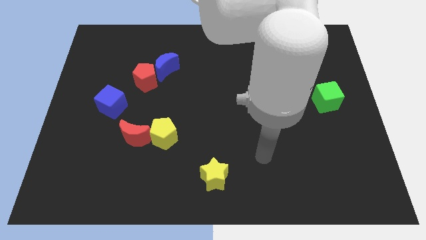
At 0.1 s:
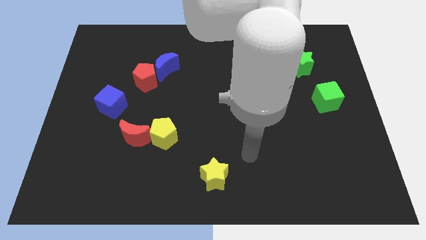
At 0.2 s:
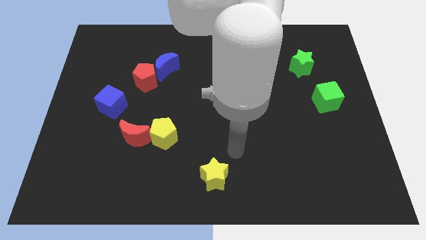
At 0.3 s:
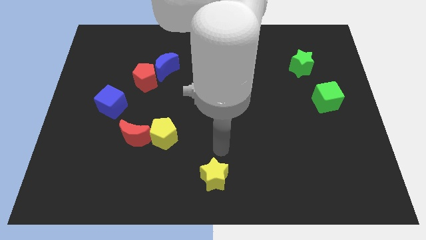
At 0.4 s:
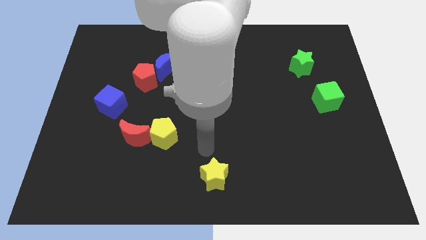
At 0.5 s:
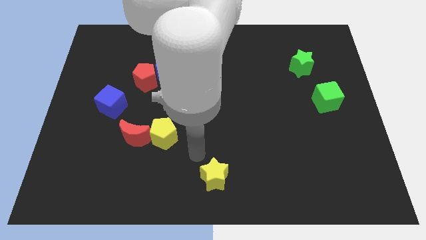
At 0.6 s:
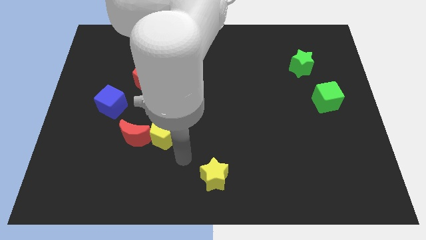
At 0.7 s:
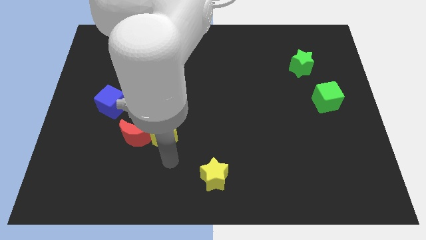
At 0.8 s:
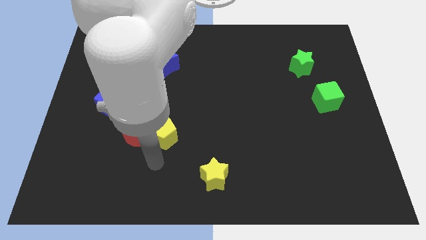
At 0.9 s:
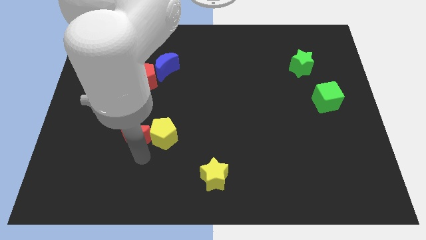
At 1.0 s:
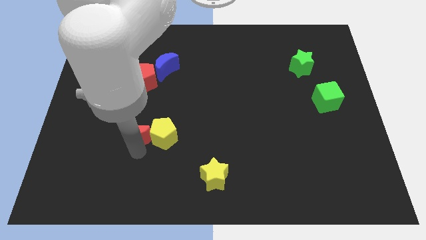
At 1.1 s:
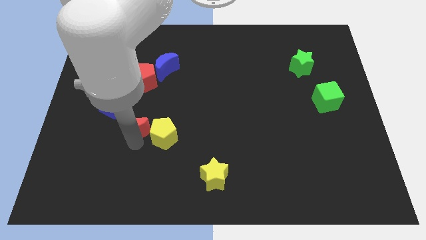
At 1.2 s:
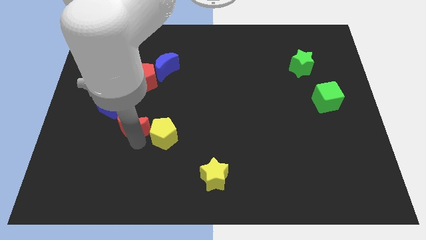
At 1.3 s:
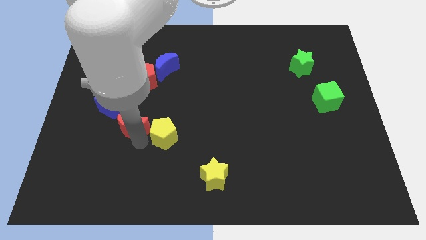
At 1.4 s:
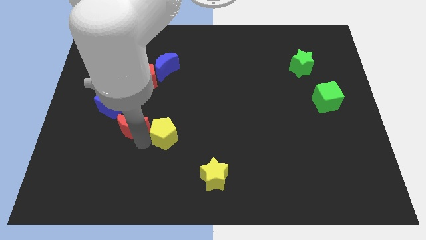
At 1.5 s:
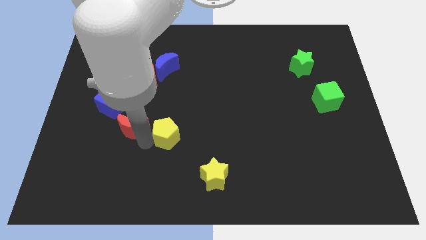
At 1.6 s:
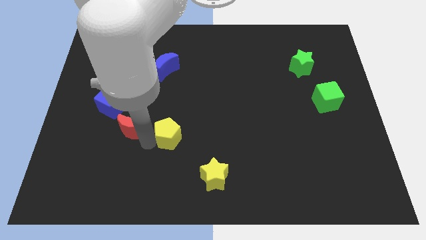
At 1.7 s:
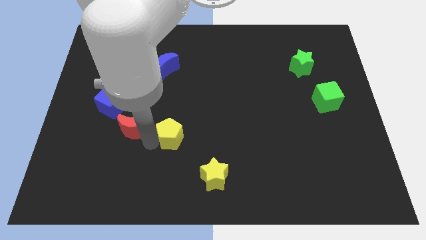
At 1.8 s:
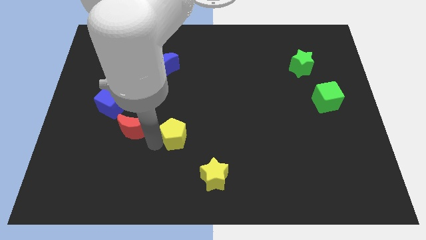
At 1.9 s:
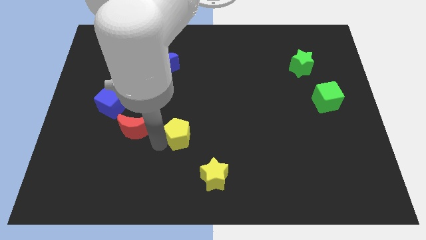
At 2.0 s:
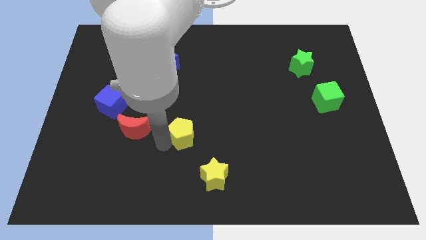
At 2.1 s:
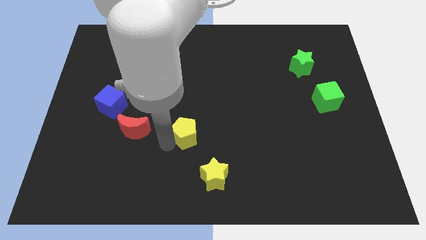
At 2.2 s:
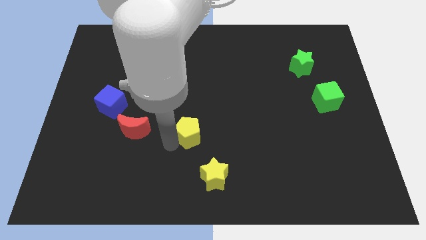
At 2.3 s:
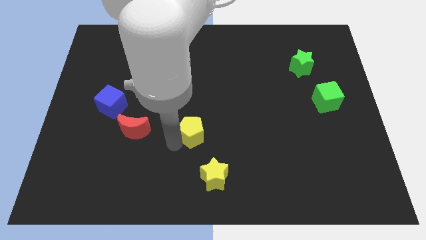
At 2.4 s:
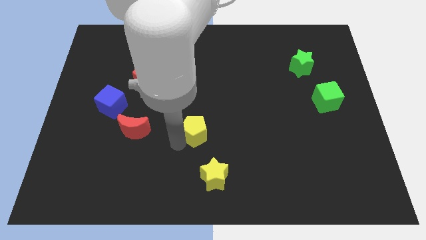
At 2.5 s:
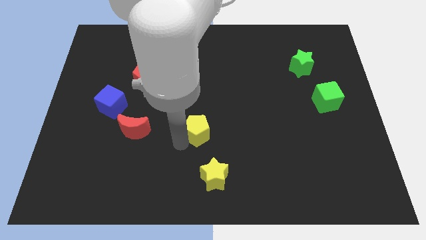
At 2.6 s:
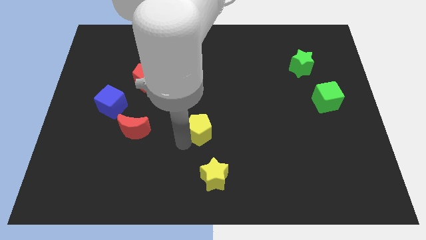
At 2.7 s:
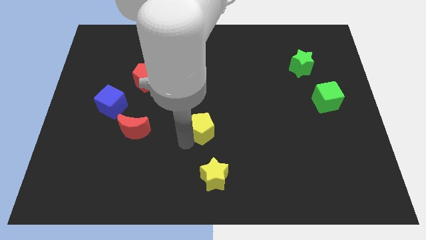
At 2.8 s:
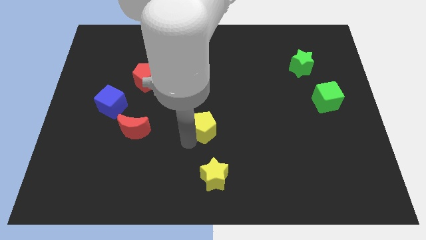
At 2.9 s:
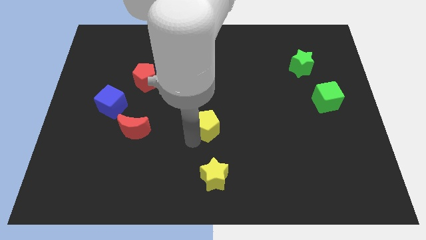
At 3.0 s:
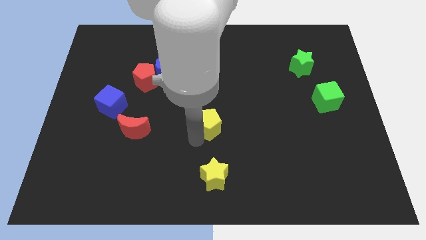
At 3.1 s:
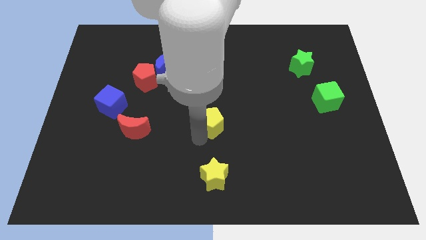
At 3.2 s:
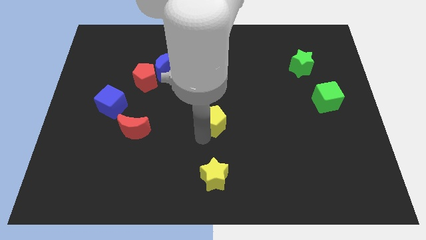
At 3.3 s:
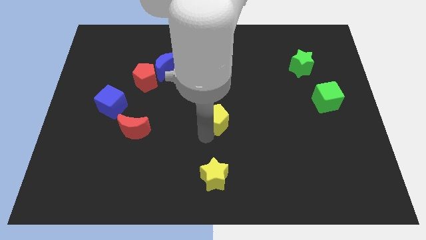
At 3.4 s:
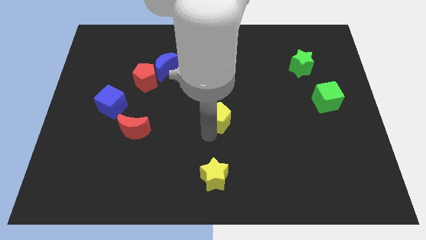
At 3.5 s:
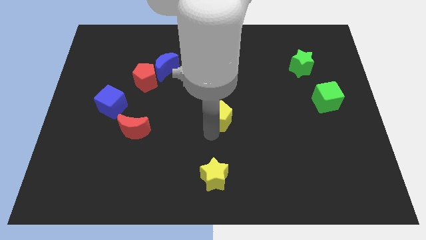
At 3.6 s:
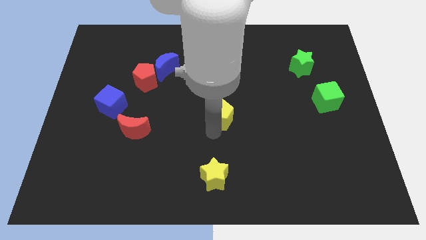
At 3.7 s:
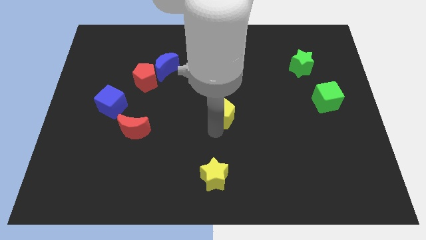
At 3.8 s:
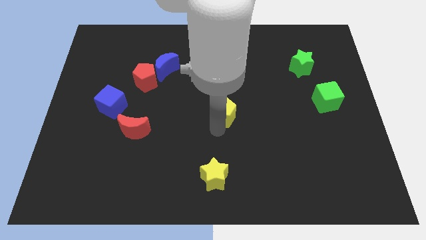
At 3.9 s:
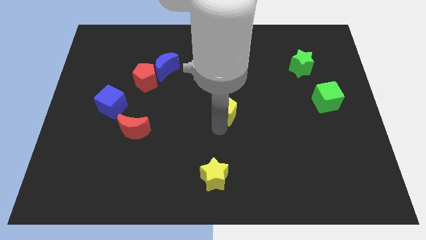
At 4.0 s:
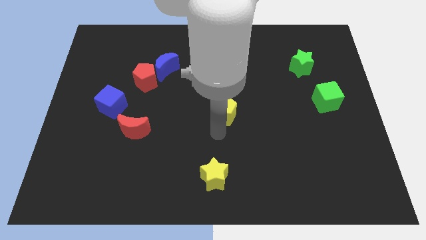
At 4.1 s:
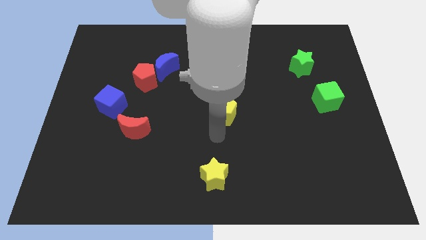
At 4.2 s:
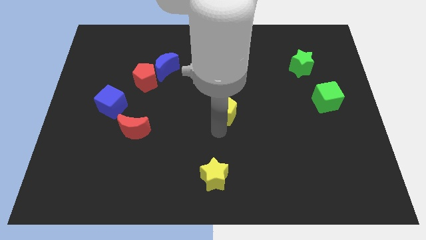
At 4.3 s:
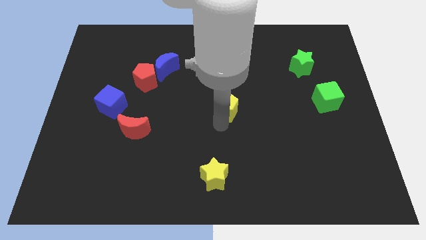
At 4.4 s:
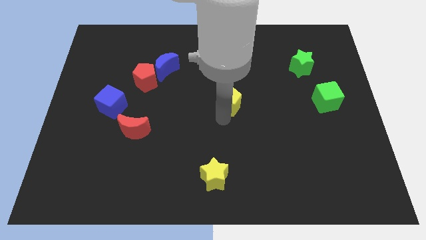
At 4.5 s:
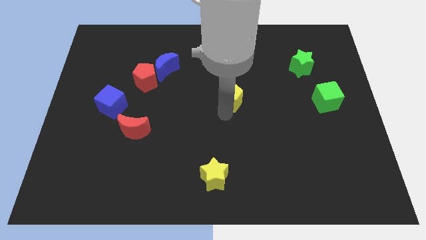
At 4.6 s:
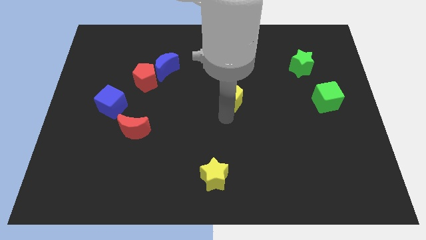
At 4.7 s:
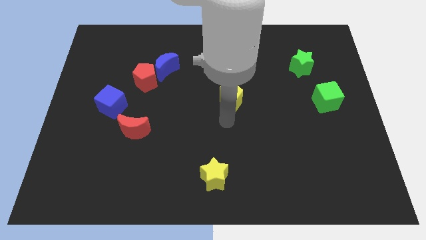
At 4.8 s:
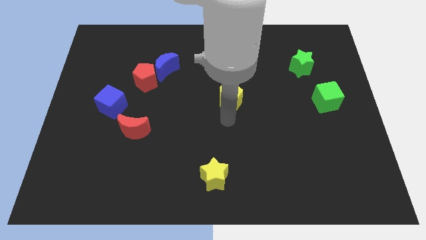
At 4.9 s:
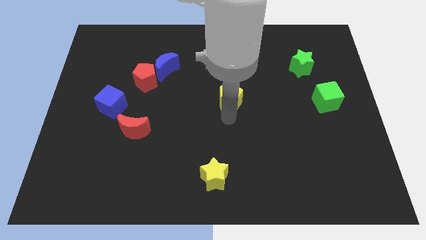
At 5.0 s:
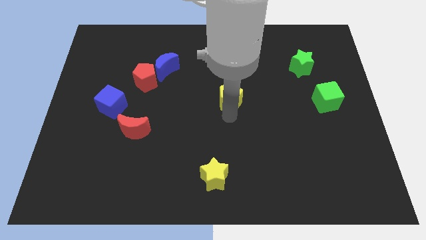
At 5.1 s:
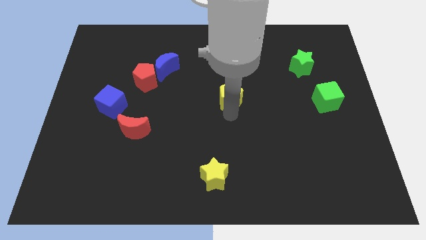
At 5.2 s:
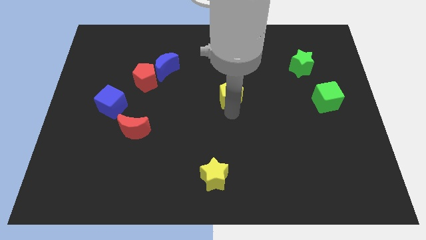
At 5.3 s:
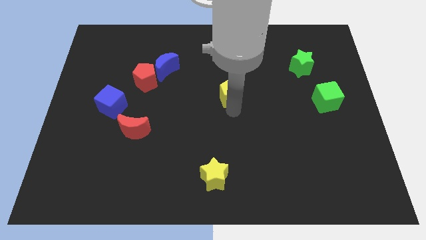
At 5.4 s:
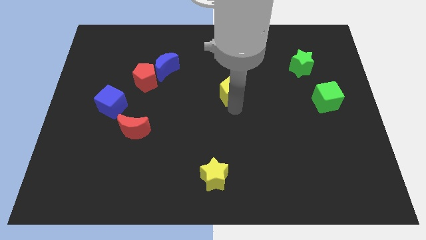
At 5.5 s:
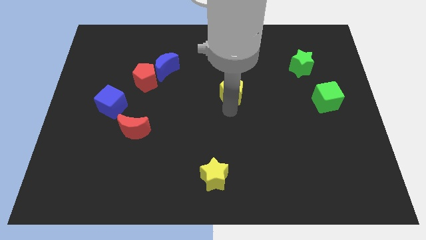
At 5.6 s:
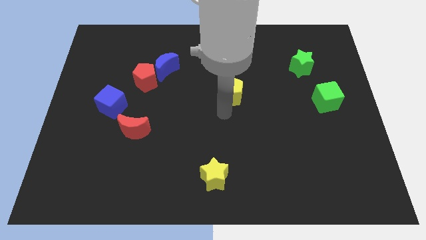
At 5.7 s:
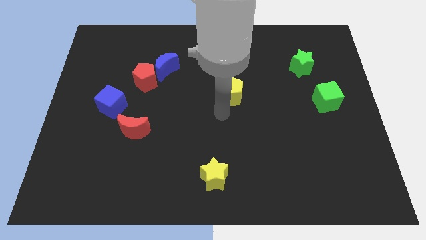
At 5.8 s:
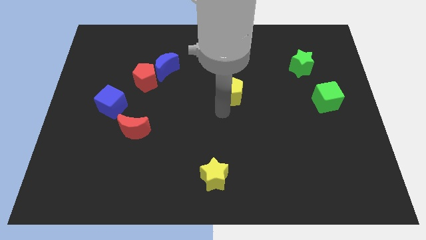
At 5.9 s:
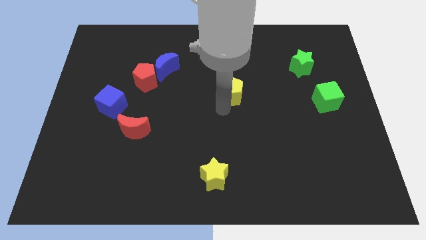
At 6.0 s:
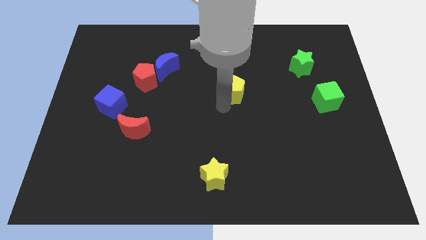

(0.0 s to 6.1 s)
move the yellow pentagon up and to the right

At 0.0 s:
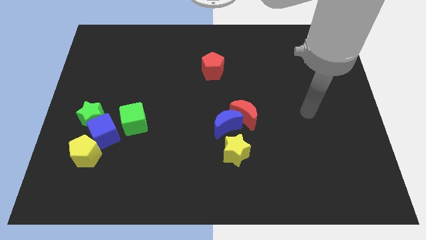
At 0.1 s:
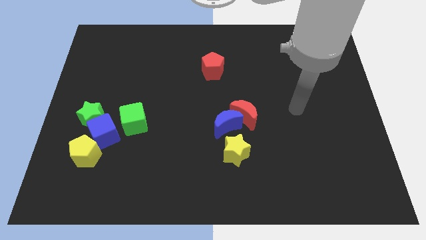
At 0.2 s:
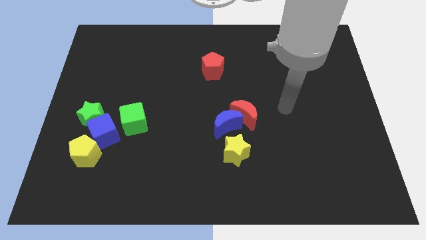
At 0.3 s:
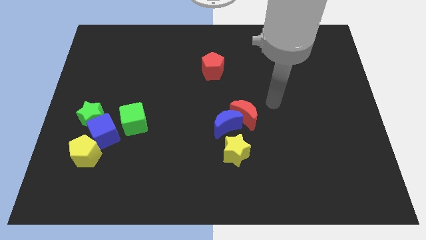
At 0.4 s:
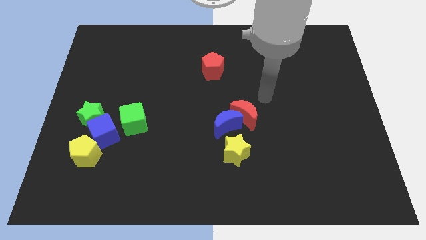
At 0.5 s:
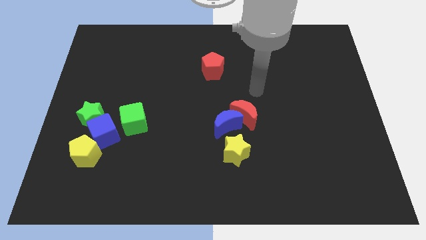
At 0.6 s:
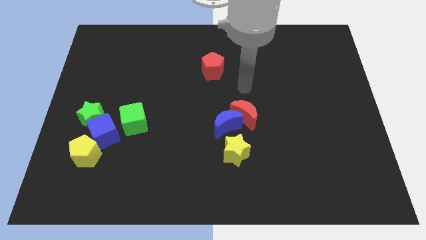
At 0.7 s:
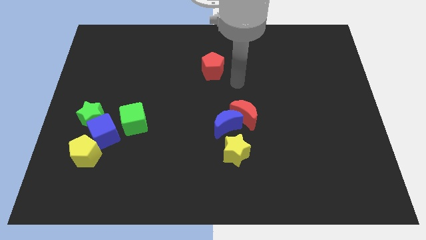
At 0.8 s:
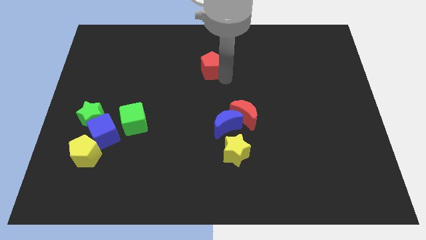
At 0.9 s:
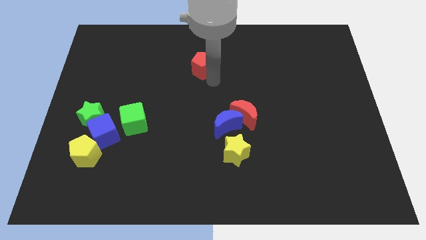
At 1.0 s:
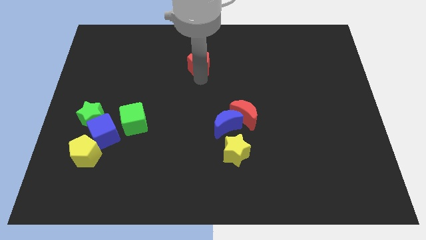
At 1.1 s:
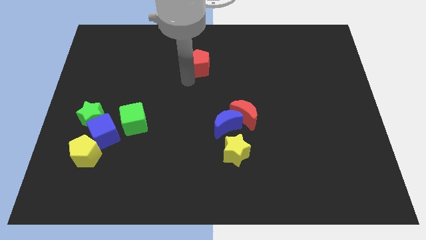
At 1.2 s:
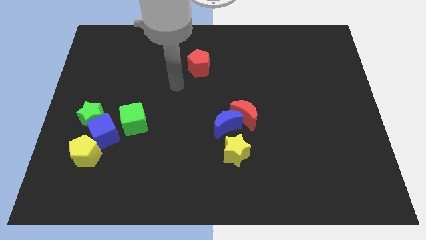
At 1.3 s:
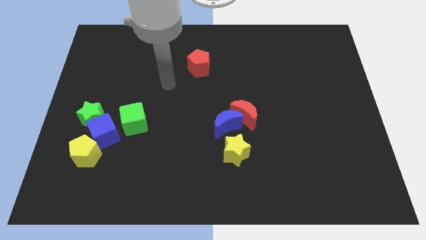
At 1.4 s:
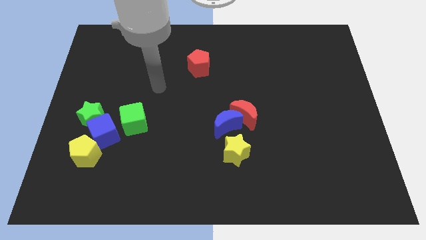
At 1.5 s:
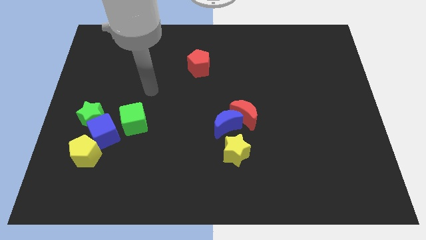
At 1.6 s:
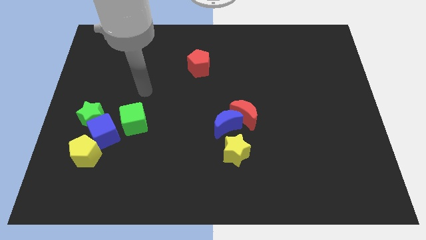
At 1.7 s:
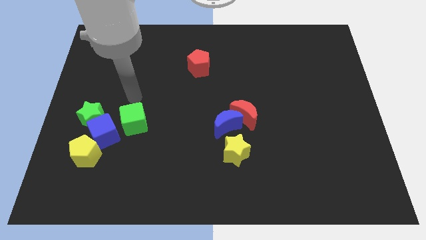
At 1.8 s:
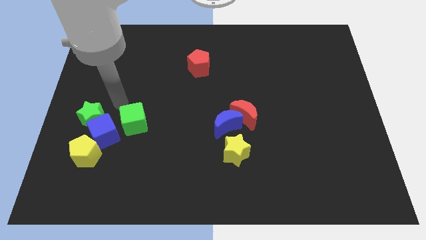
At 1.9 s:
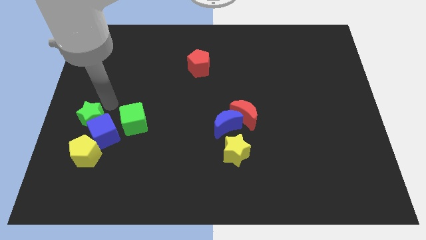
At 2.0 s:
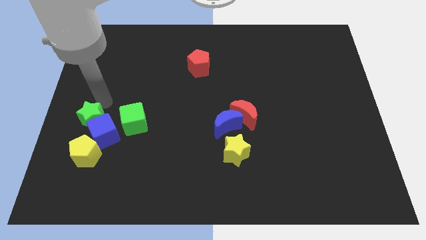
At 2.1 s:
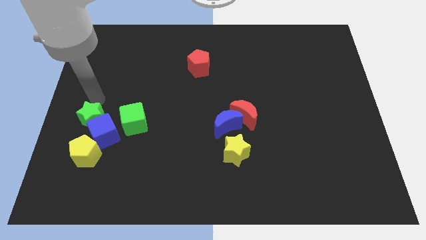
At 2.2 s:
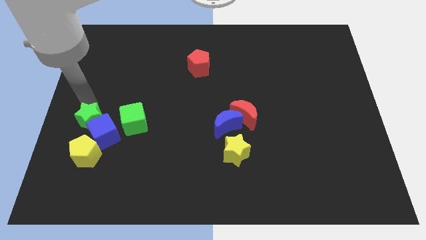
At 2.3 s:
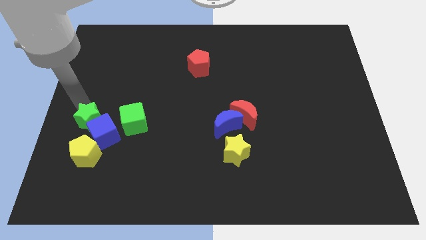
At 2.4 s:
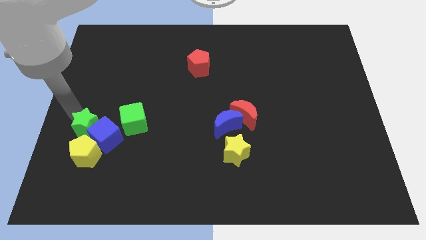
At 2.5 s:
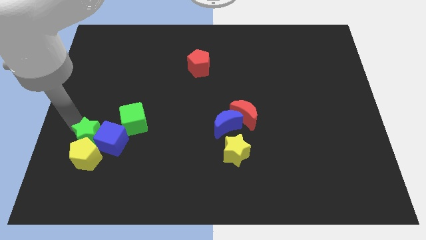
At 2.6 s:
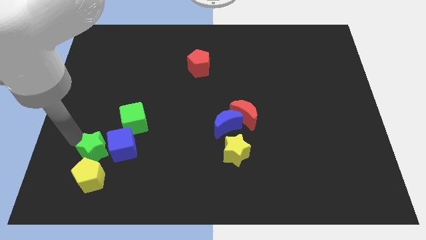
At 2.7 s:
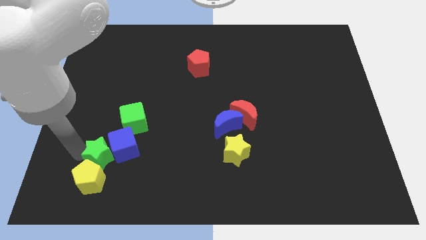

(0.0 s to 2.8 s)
slightly push the green star down and right
